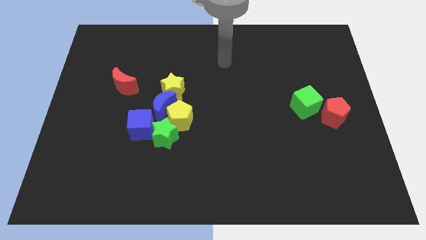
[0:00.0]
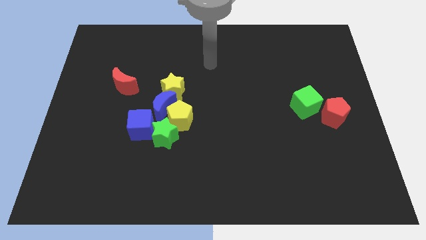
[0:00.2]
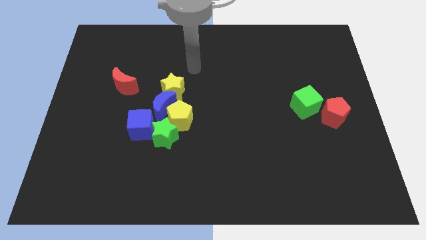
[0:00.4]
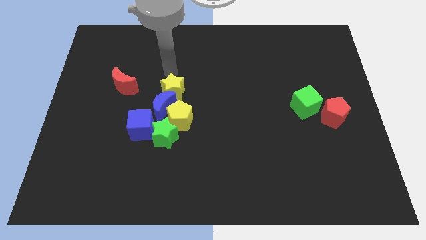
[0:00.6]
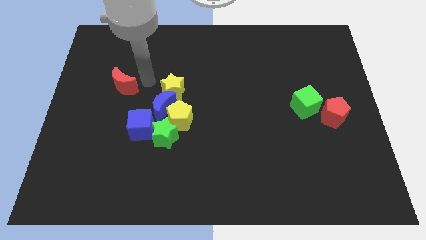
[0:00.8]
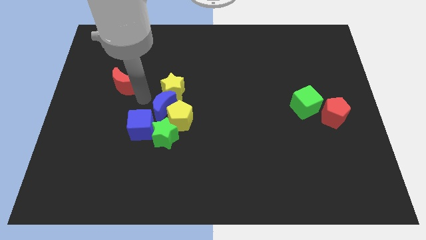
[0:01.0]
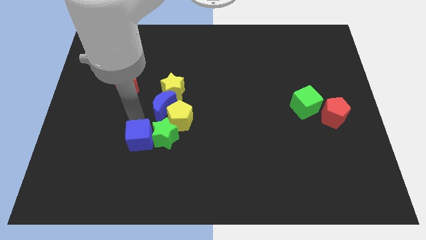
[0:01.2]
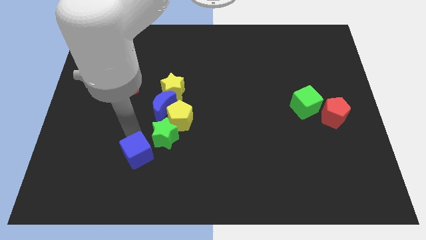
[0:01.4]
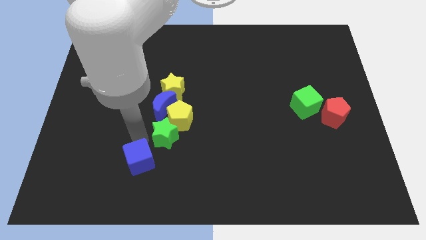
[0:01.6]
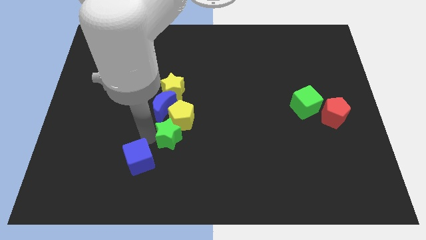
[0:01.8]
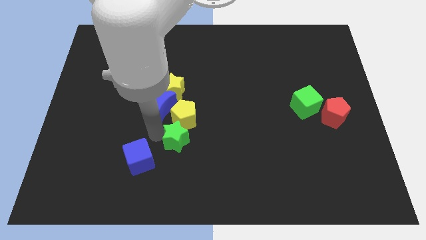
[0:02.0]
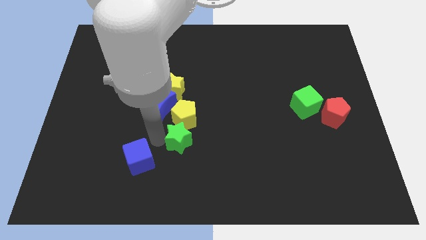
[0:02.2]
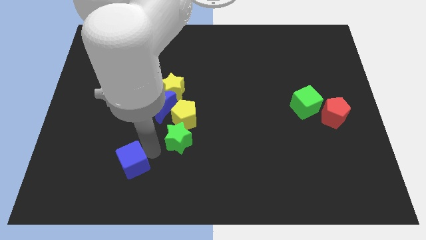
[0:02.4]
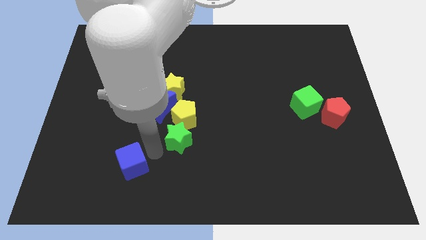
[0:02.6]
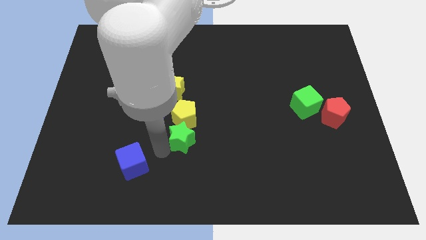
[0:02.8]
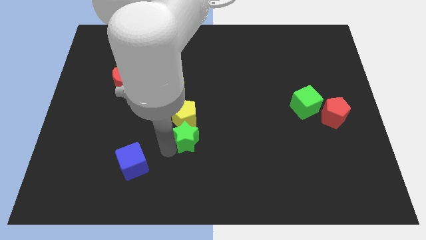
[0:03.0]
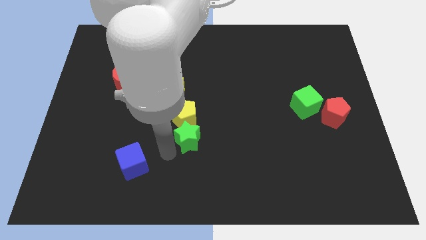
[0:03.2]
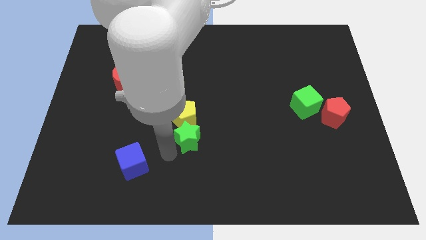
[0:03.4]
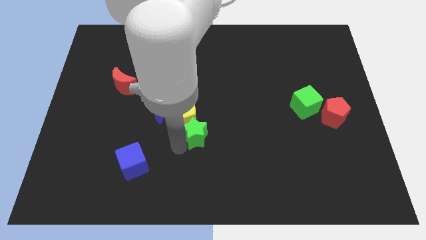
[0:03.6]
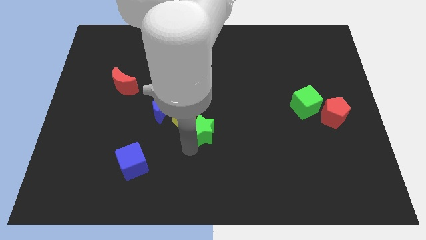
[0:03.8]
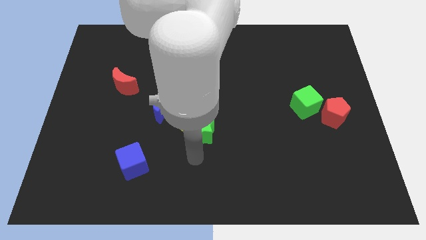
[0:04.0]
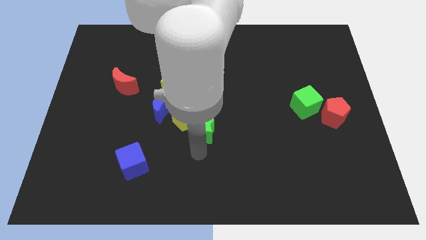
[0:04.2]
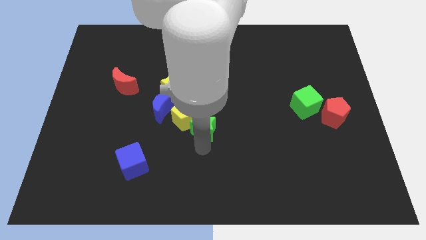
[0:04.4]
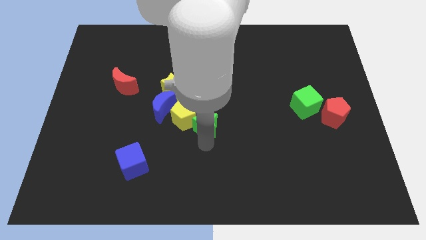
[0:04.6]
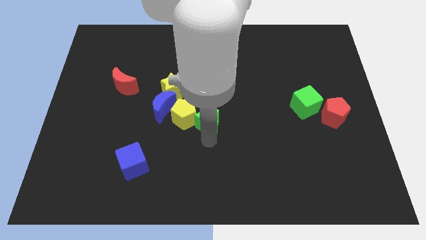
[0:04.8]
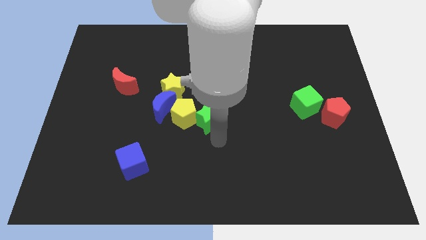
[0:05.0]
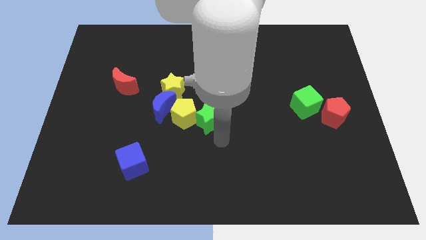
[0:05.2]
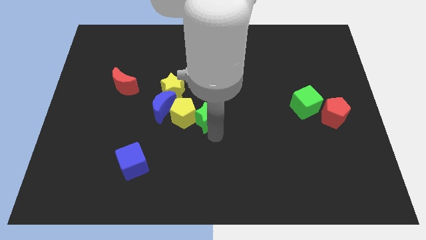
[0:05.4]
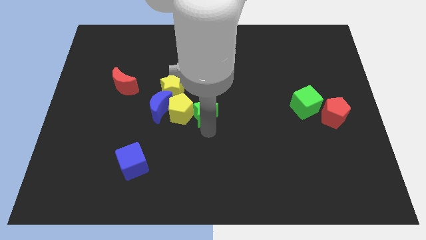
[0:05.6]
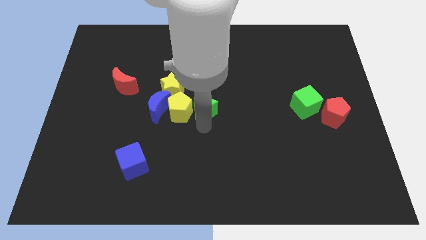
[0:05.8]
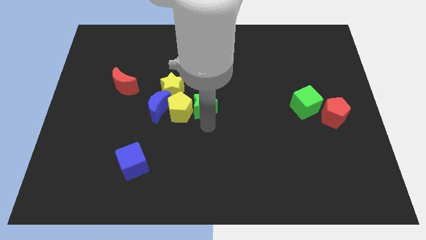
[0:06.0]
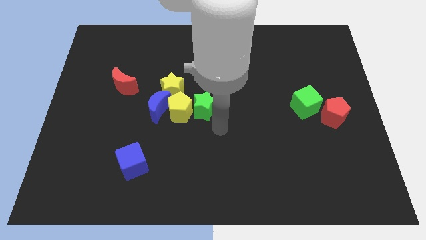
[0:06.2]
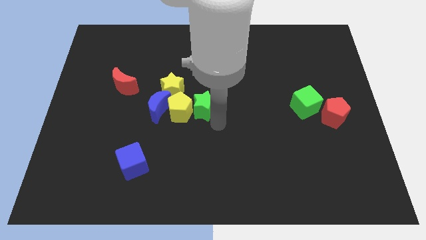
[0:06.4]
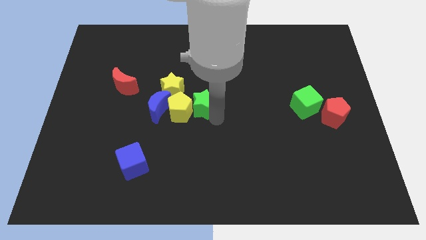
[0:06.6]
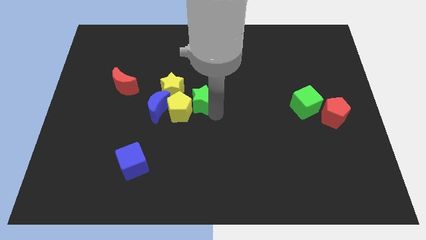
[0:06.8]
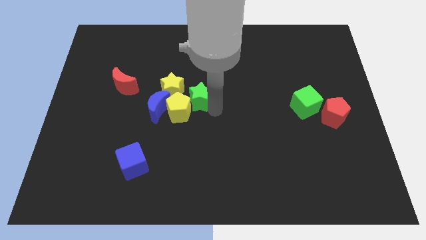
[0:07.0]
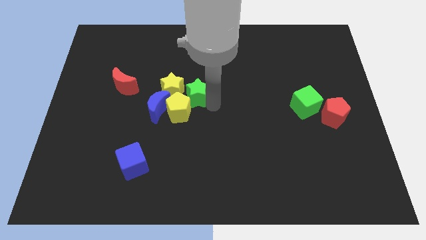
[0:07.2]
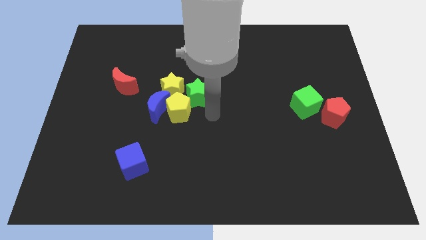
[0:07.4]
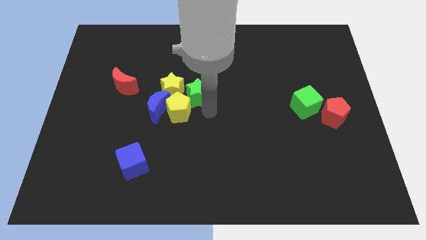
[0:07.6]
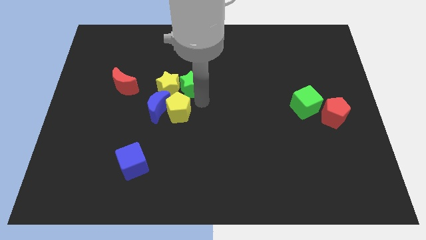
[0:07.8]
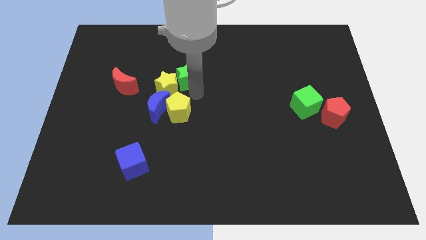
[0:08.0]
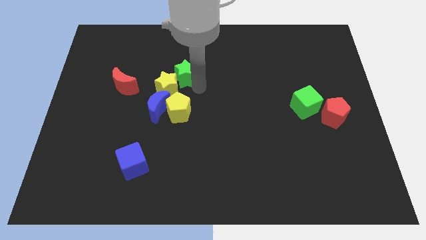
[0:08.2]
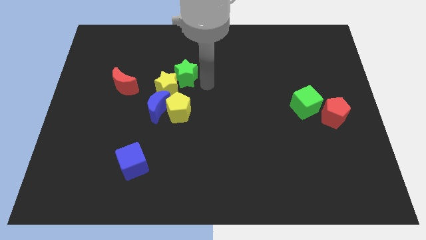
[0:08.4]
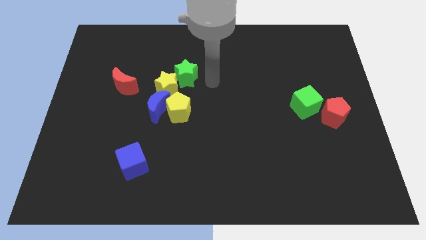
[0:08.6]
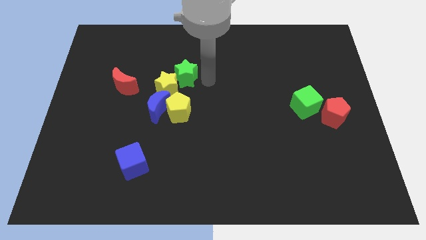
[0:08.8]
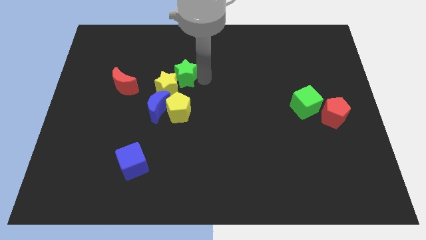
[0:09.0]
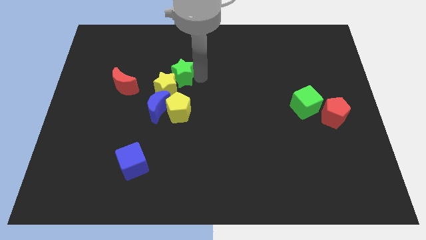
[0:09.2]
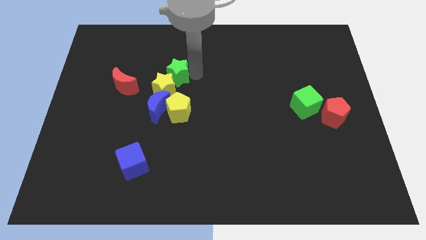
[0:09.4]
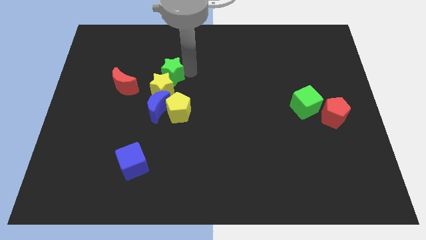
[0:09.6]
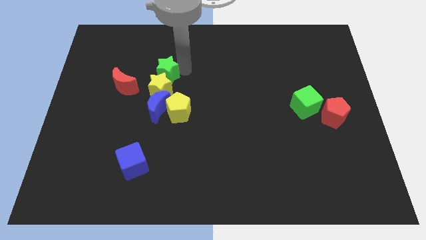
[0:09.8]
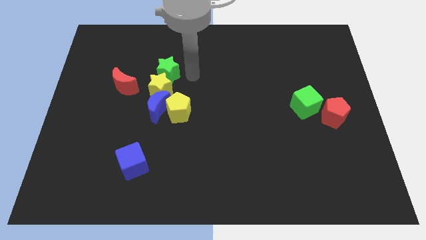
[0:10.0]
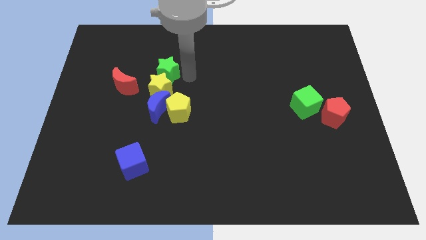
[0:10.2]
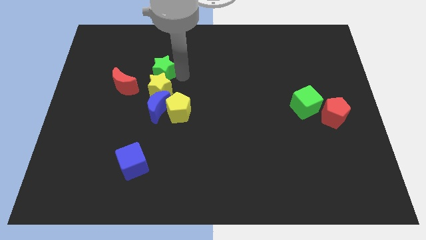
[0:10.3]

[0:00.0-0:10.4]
move the green star diagonally up and to the right of the red moon

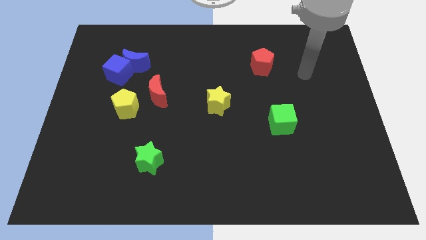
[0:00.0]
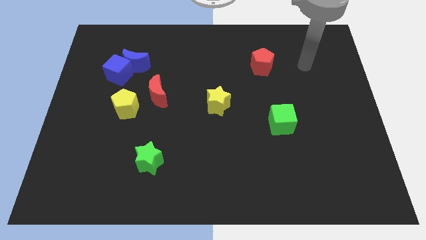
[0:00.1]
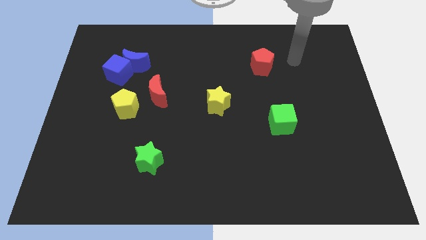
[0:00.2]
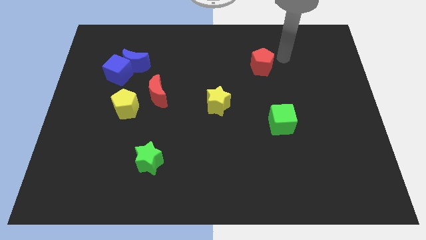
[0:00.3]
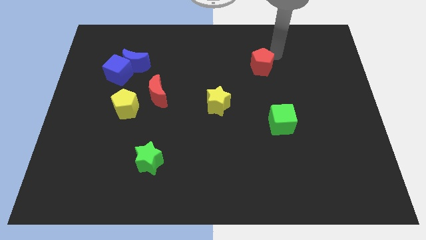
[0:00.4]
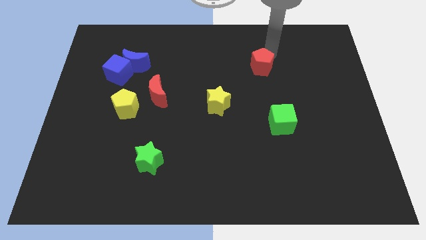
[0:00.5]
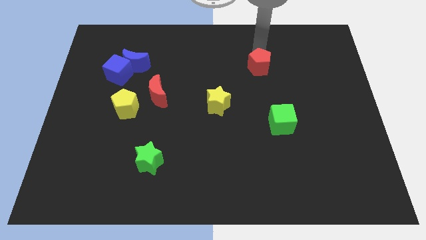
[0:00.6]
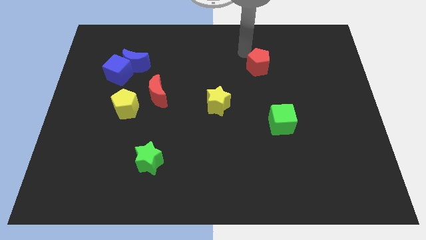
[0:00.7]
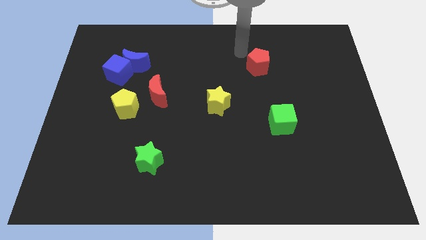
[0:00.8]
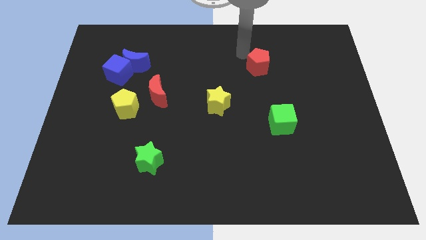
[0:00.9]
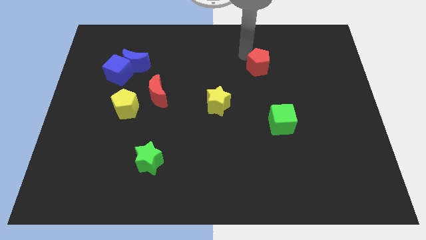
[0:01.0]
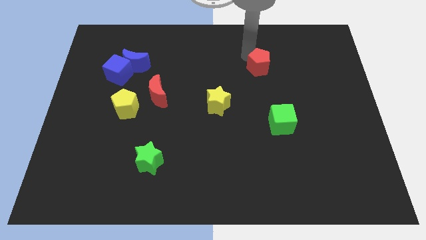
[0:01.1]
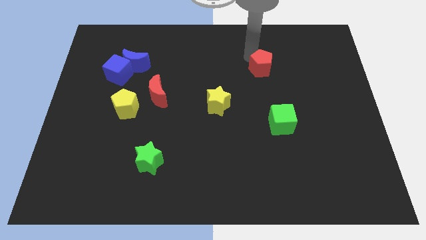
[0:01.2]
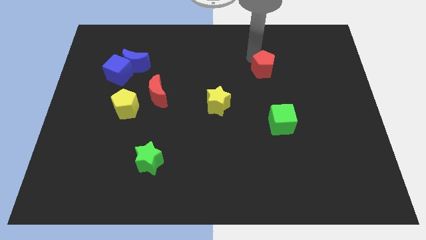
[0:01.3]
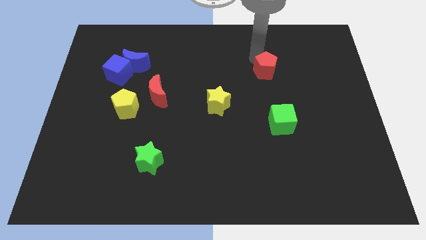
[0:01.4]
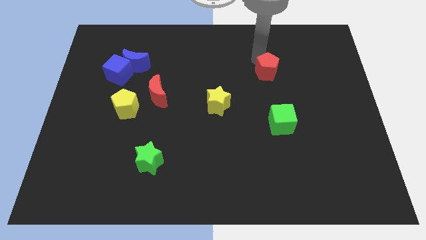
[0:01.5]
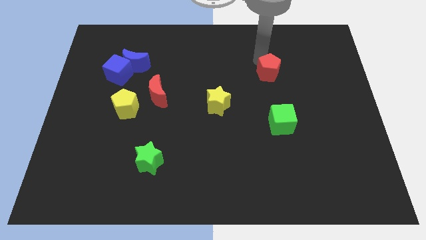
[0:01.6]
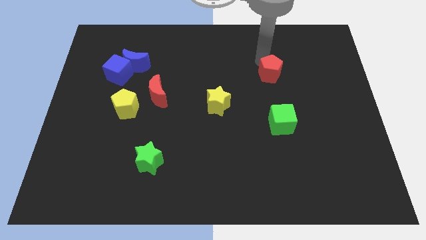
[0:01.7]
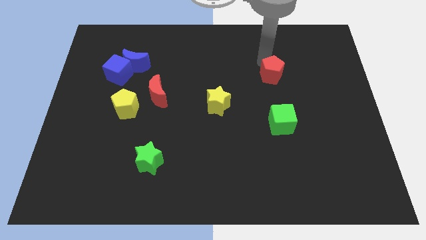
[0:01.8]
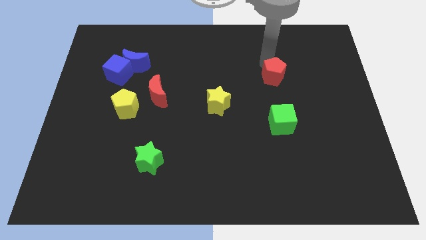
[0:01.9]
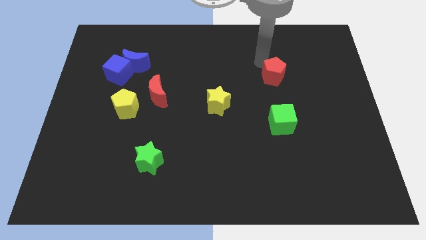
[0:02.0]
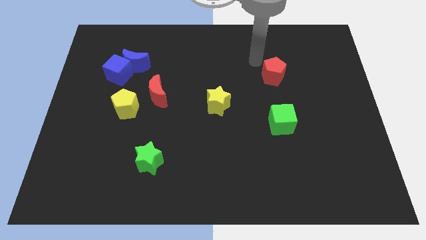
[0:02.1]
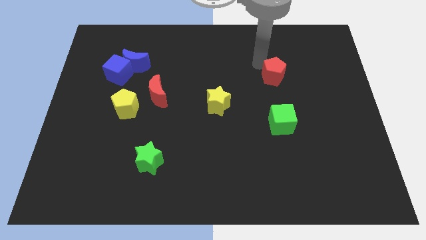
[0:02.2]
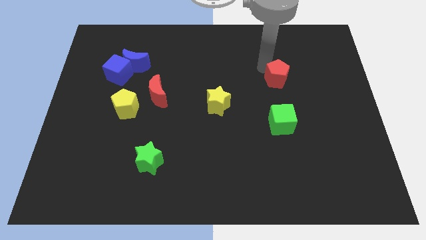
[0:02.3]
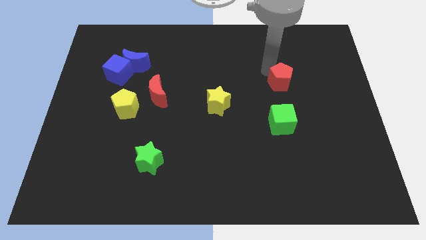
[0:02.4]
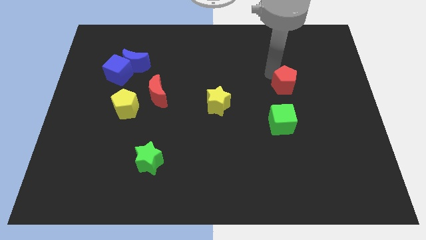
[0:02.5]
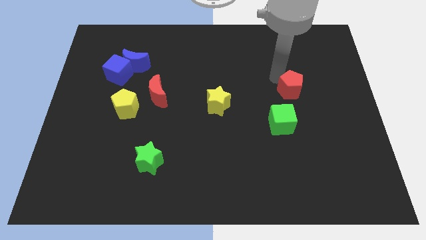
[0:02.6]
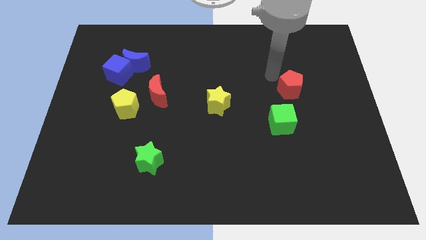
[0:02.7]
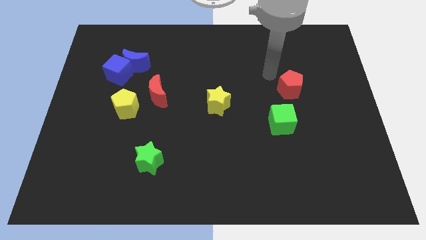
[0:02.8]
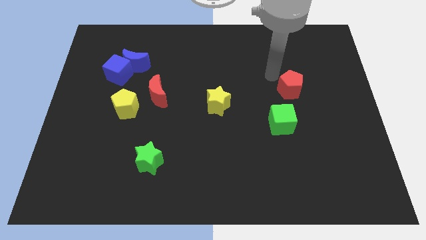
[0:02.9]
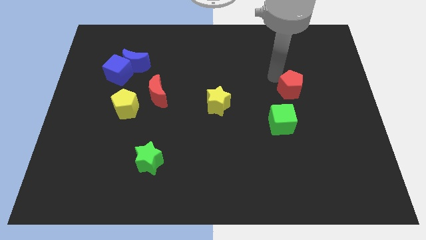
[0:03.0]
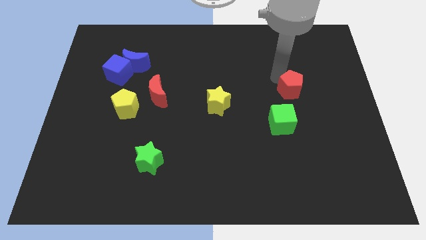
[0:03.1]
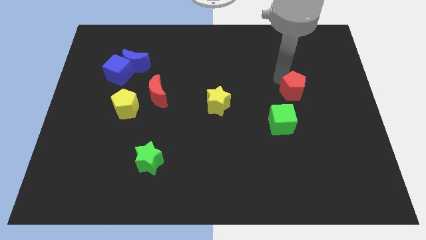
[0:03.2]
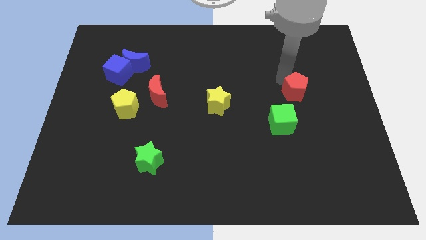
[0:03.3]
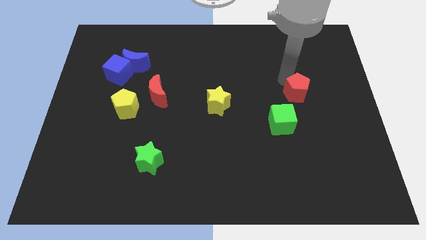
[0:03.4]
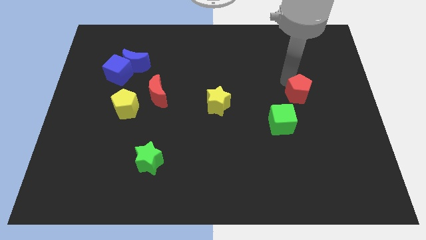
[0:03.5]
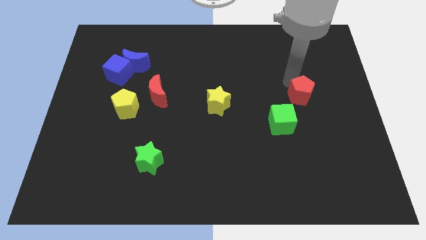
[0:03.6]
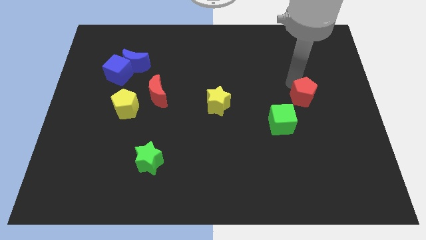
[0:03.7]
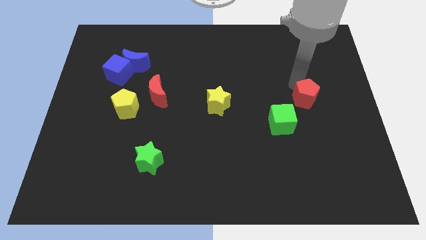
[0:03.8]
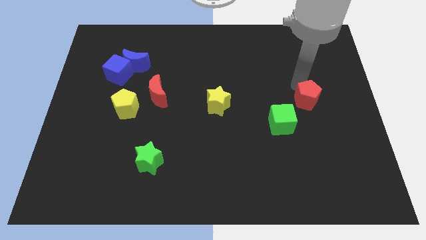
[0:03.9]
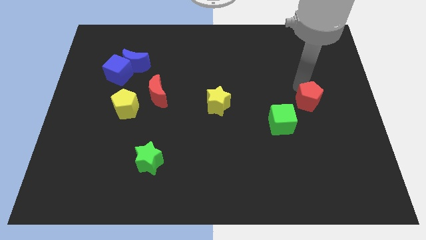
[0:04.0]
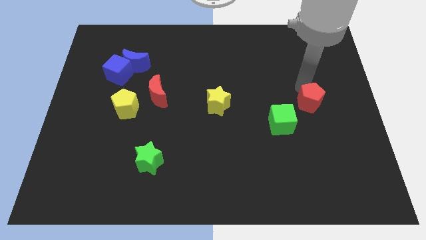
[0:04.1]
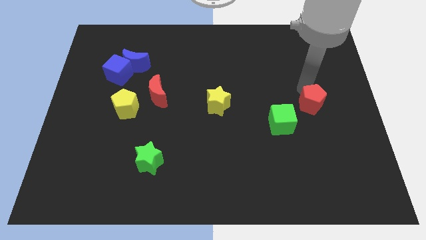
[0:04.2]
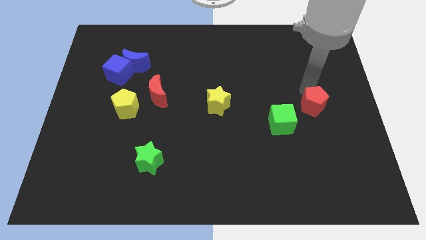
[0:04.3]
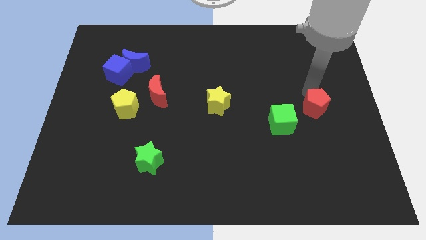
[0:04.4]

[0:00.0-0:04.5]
push the red pentagon right of the green cube
